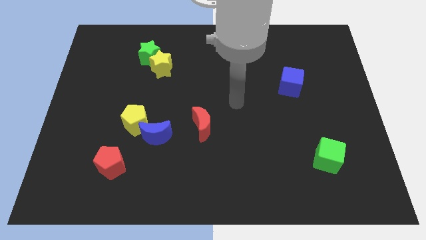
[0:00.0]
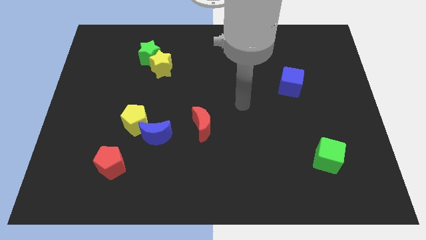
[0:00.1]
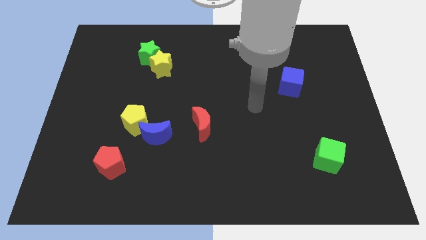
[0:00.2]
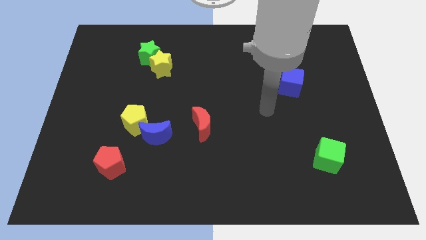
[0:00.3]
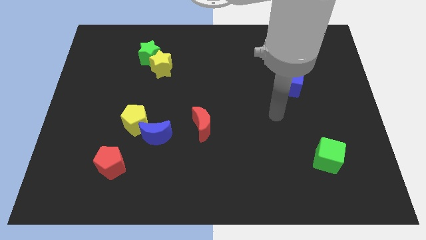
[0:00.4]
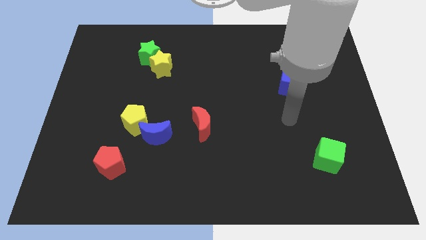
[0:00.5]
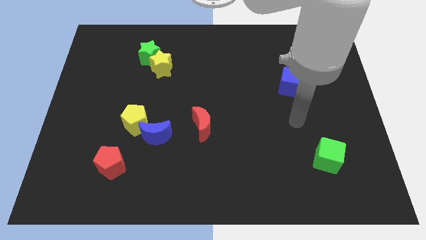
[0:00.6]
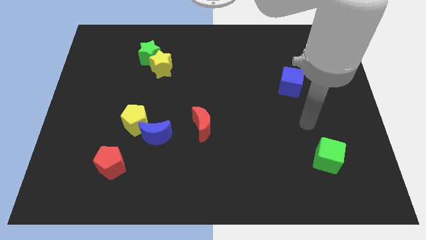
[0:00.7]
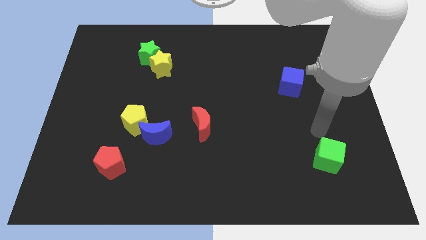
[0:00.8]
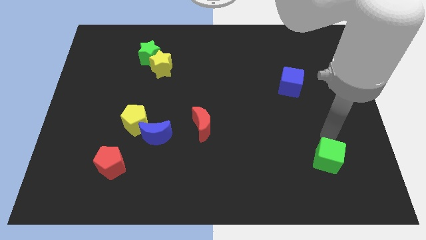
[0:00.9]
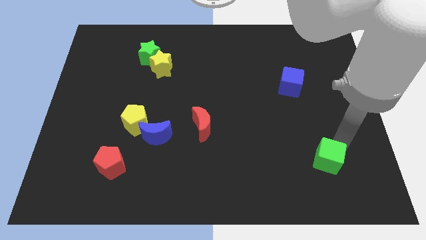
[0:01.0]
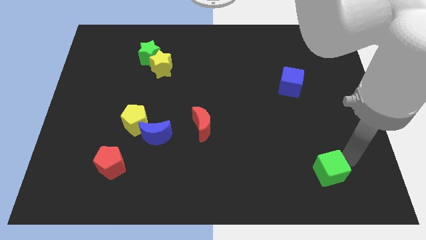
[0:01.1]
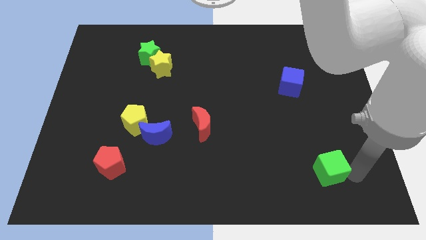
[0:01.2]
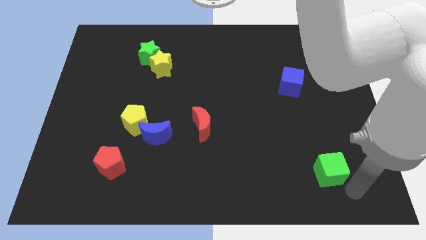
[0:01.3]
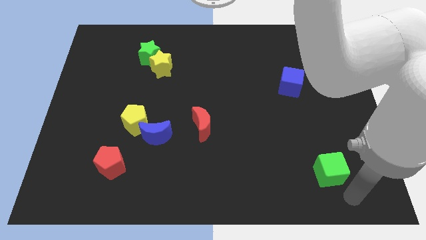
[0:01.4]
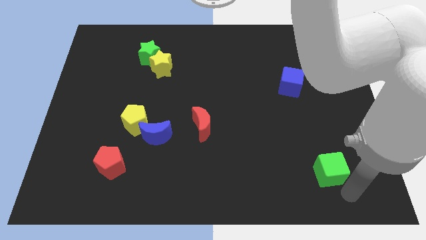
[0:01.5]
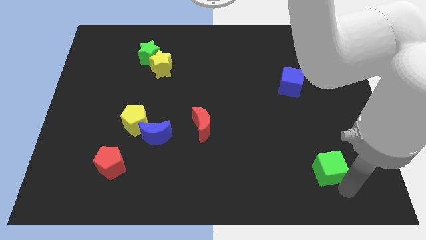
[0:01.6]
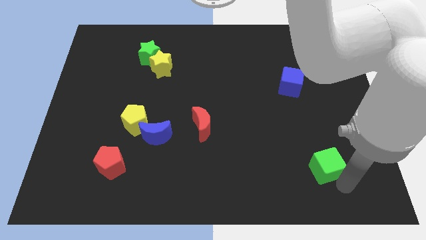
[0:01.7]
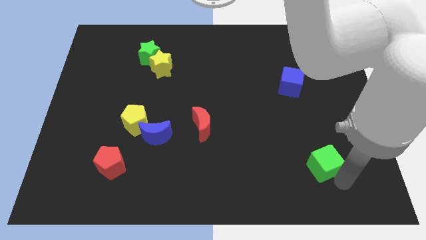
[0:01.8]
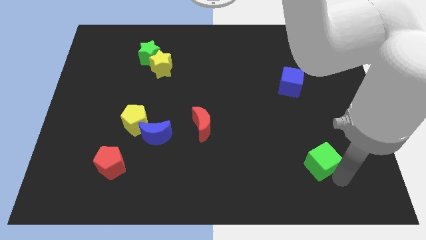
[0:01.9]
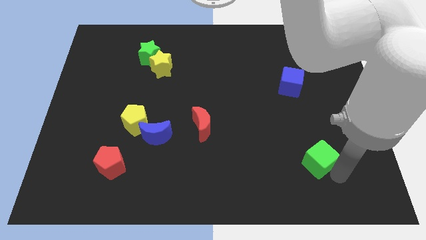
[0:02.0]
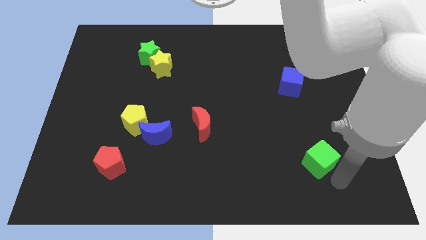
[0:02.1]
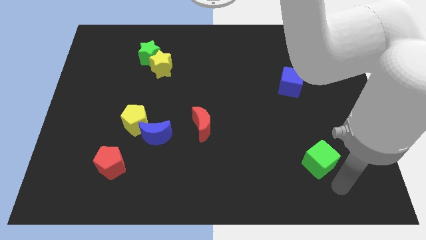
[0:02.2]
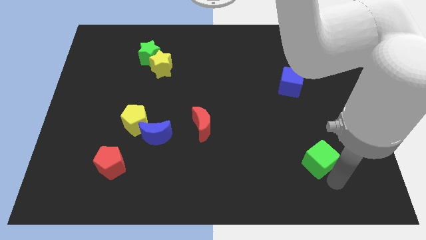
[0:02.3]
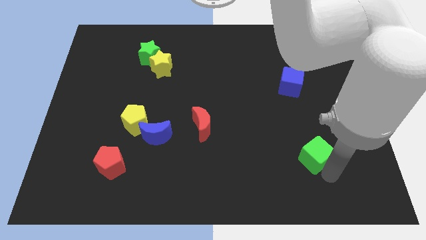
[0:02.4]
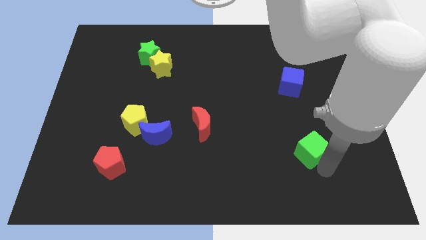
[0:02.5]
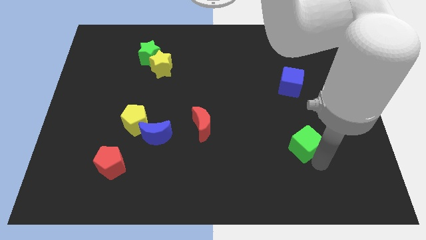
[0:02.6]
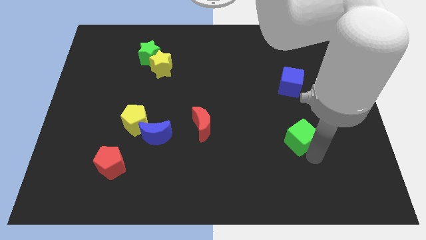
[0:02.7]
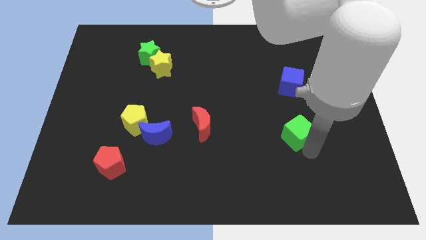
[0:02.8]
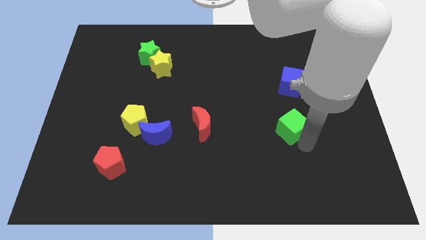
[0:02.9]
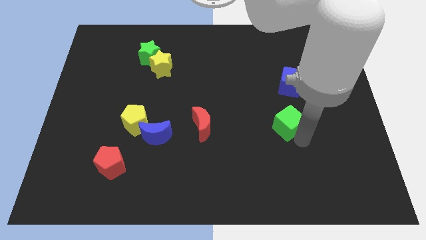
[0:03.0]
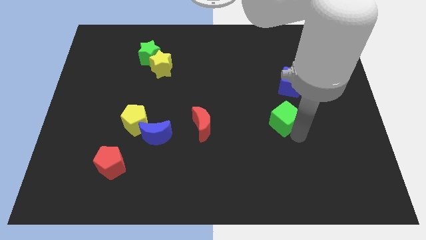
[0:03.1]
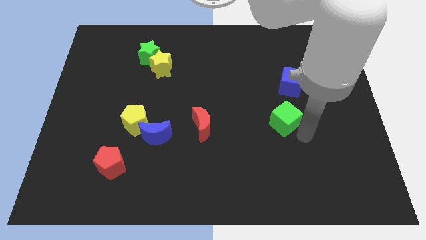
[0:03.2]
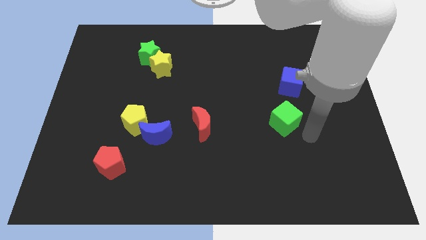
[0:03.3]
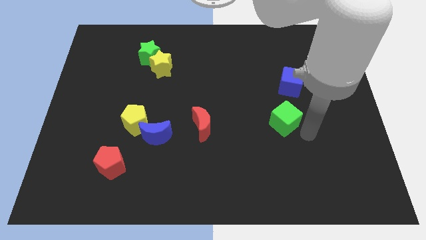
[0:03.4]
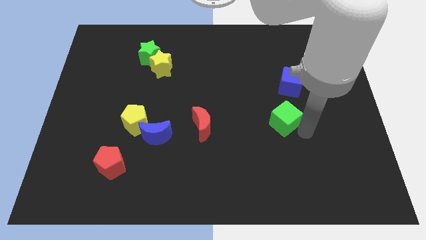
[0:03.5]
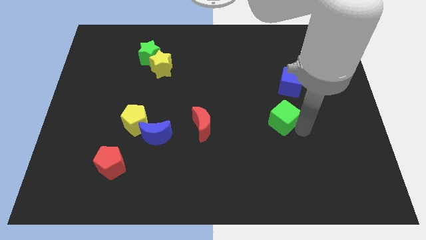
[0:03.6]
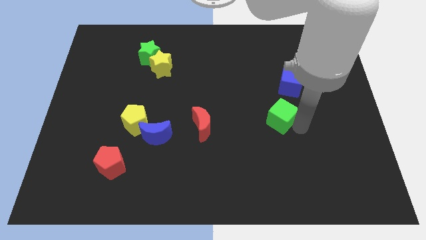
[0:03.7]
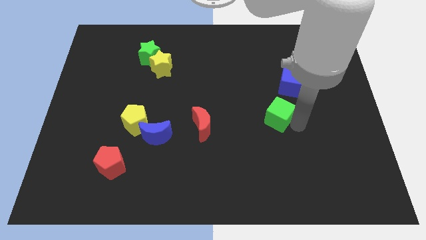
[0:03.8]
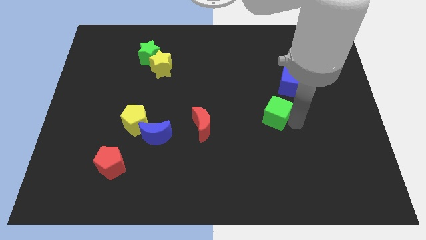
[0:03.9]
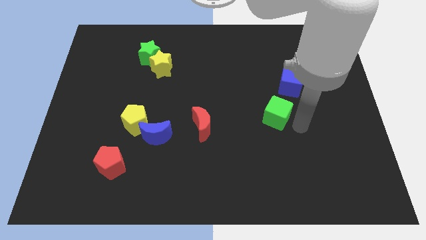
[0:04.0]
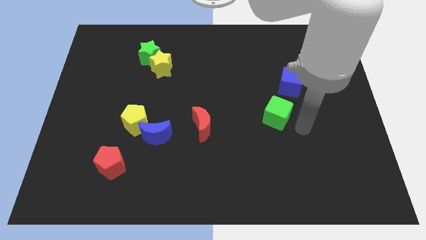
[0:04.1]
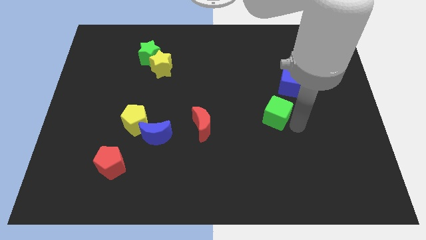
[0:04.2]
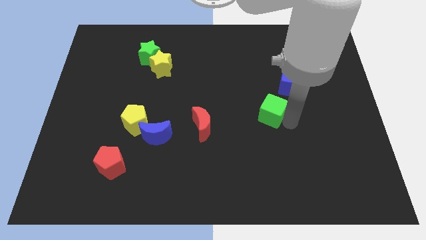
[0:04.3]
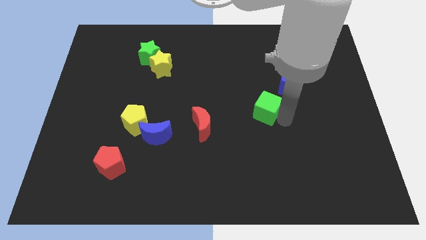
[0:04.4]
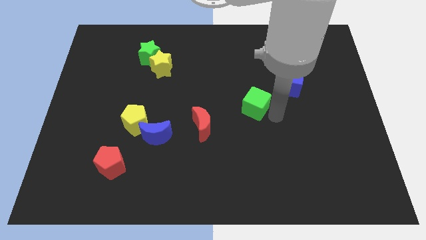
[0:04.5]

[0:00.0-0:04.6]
move the green cube diagonally up and left

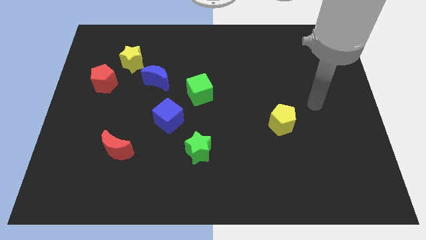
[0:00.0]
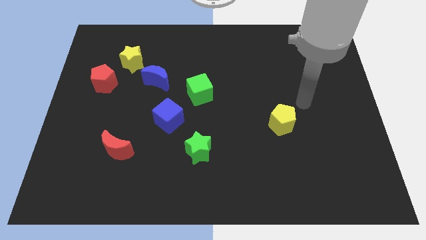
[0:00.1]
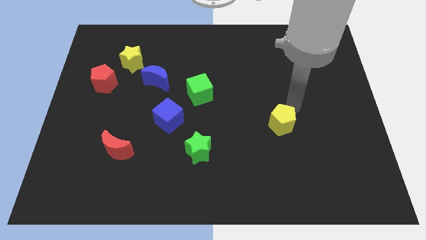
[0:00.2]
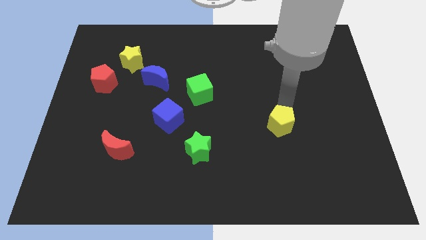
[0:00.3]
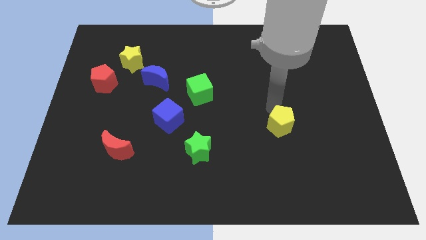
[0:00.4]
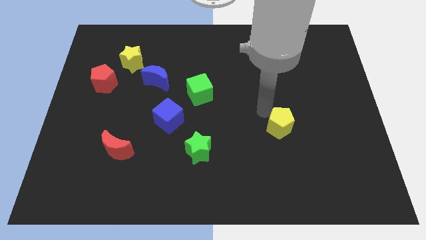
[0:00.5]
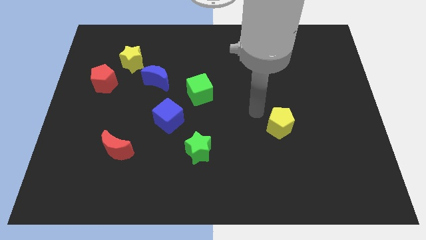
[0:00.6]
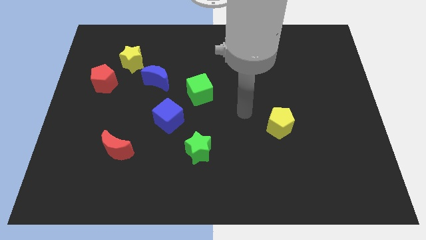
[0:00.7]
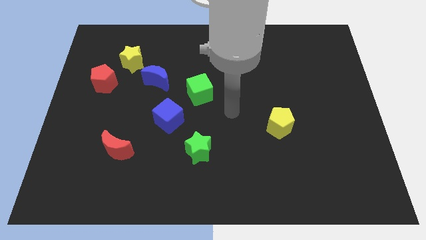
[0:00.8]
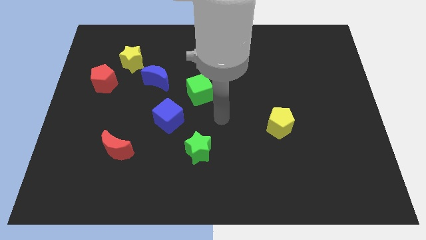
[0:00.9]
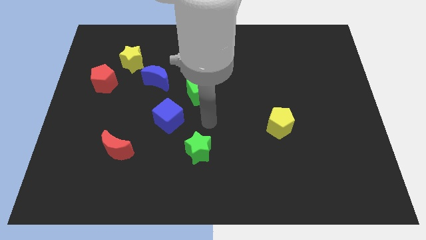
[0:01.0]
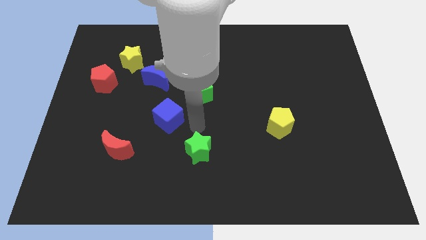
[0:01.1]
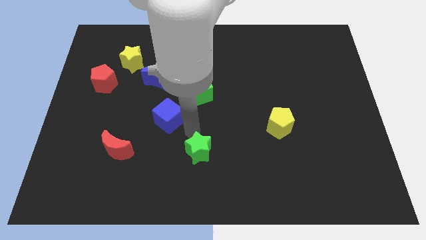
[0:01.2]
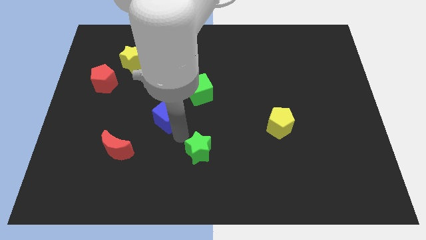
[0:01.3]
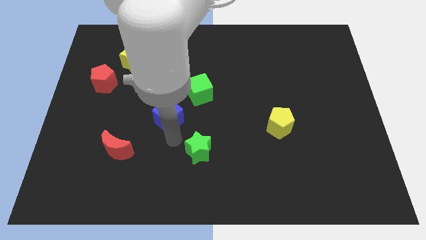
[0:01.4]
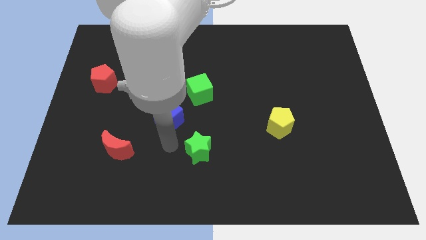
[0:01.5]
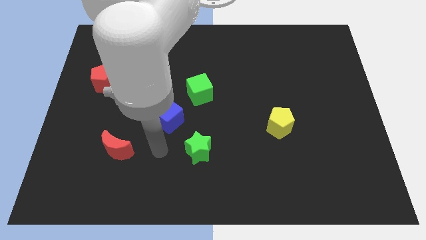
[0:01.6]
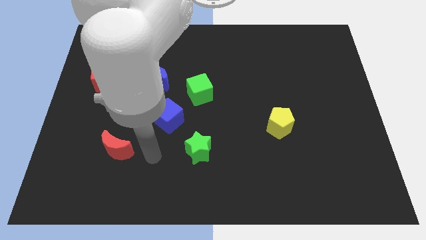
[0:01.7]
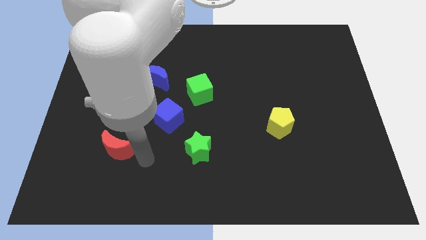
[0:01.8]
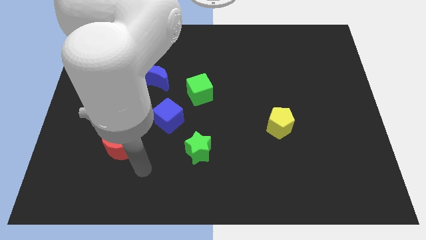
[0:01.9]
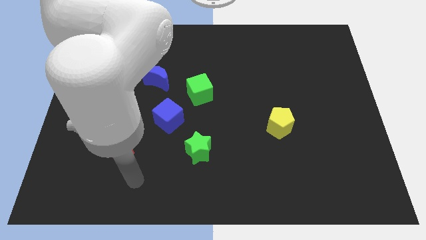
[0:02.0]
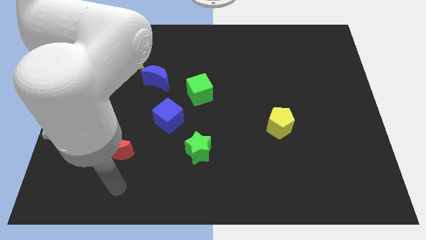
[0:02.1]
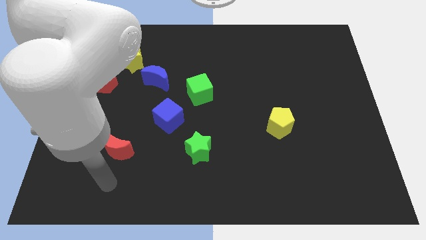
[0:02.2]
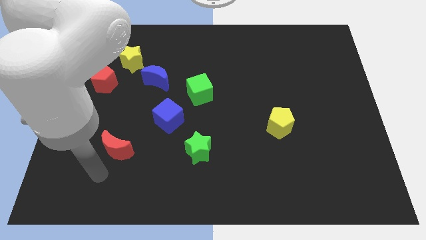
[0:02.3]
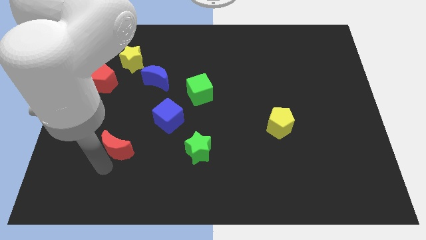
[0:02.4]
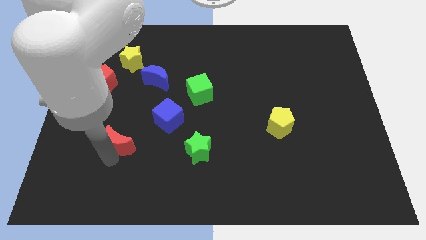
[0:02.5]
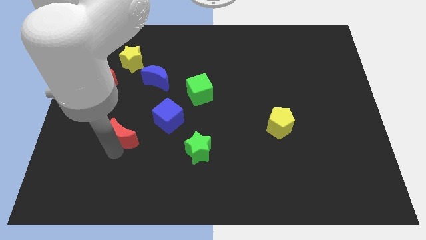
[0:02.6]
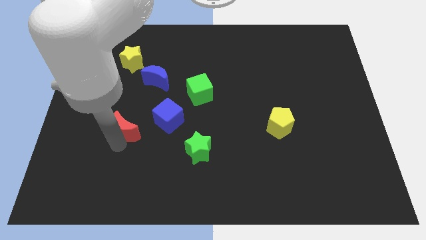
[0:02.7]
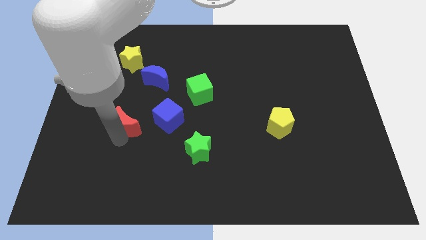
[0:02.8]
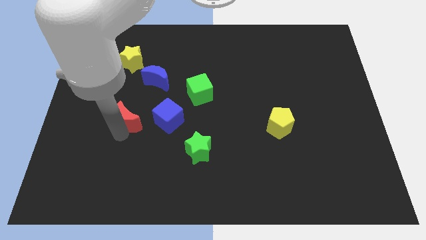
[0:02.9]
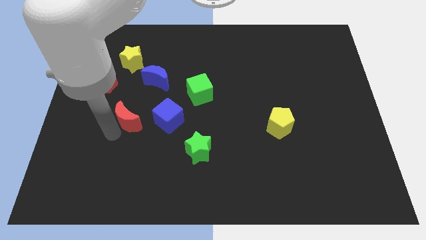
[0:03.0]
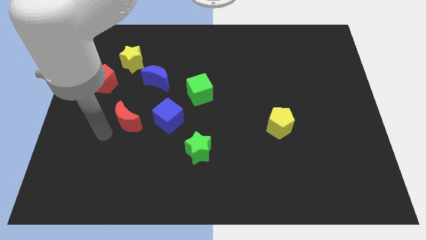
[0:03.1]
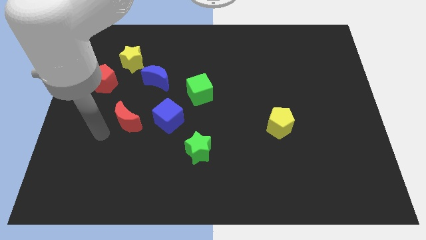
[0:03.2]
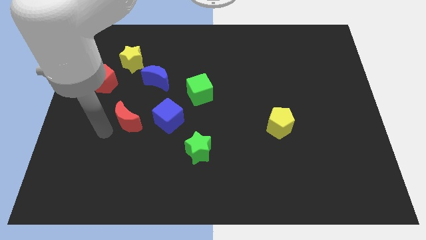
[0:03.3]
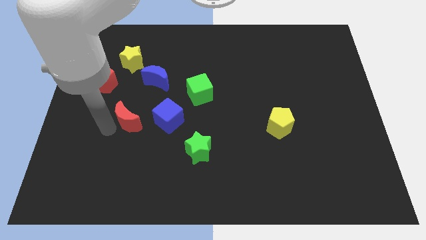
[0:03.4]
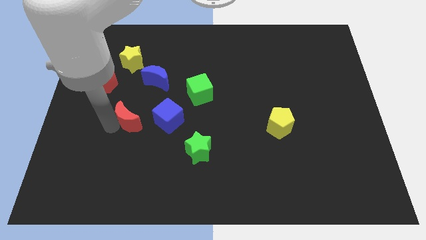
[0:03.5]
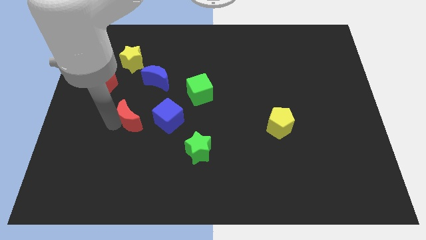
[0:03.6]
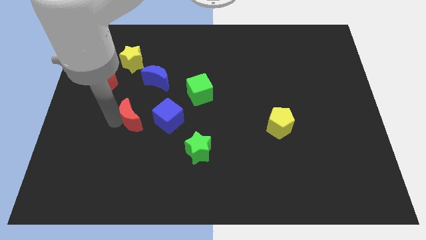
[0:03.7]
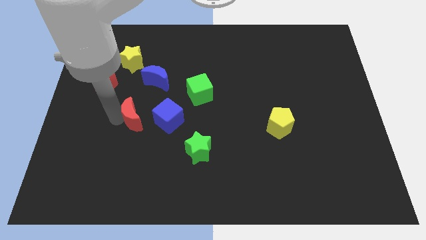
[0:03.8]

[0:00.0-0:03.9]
slide the red moon a little bit up and right
